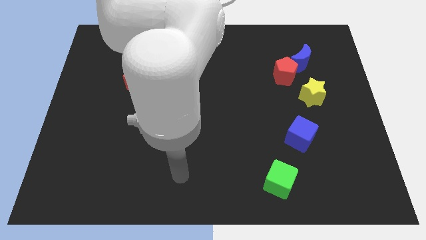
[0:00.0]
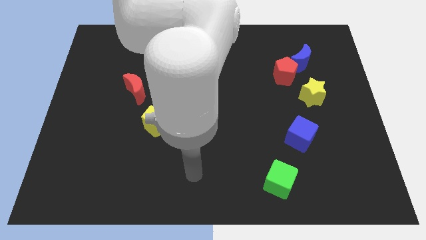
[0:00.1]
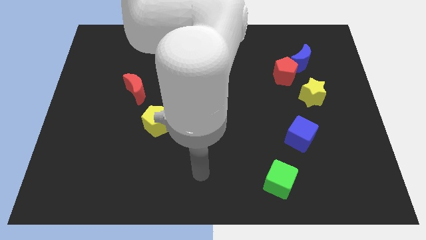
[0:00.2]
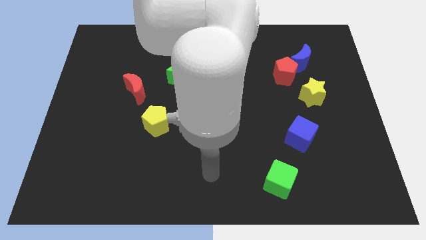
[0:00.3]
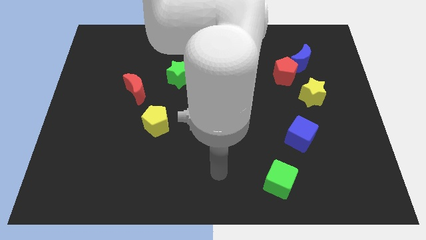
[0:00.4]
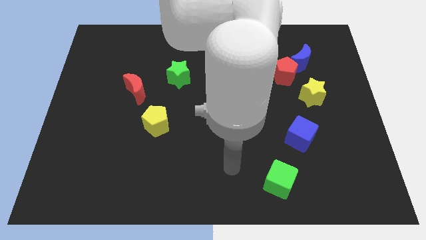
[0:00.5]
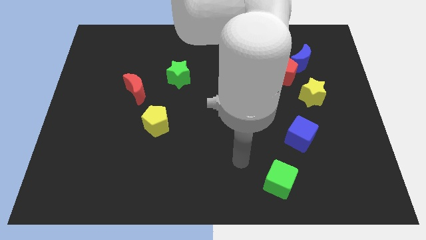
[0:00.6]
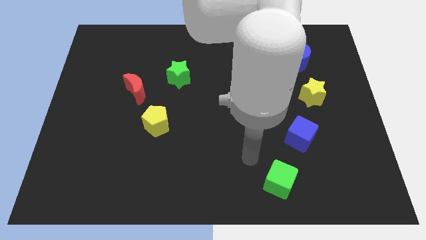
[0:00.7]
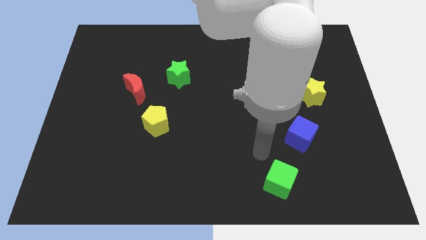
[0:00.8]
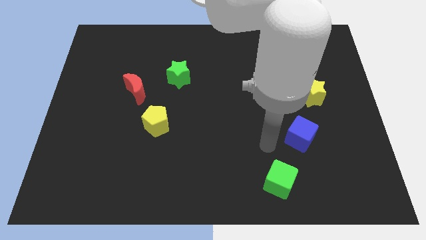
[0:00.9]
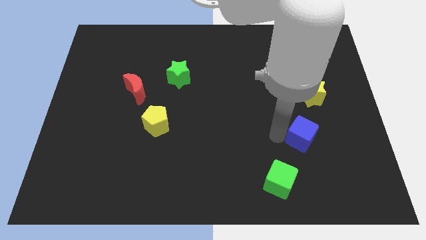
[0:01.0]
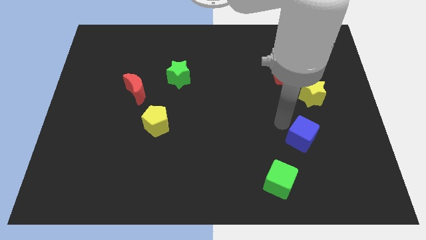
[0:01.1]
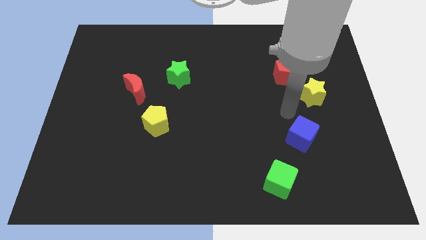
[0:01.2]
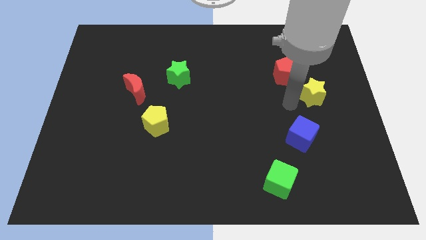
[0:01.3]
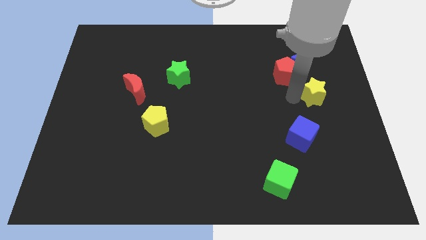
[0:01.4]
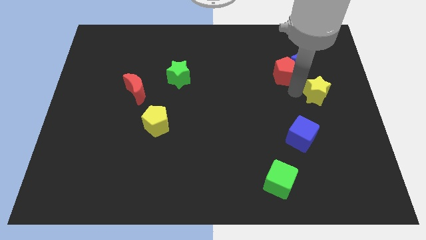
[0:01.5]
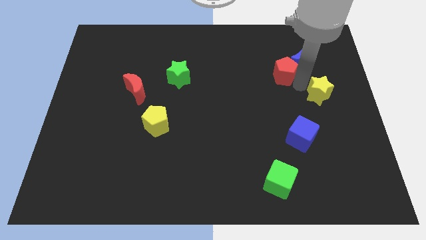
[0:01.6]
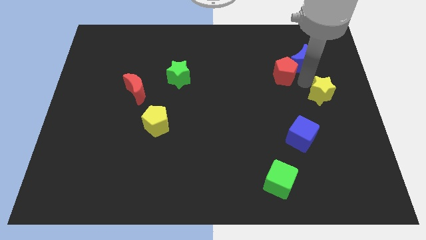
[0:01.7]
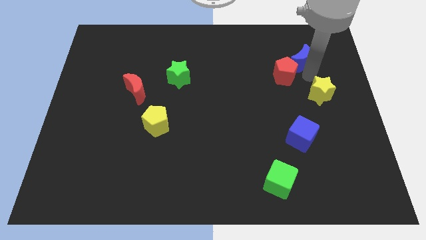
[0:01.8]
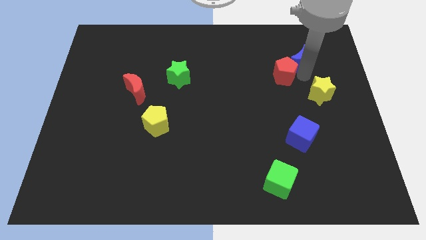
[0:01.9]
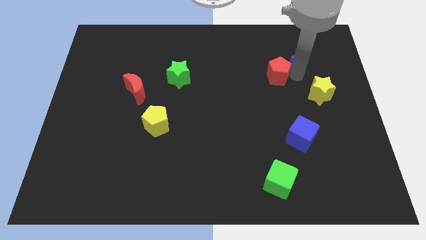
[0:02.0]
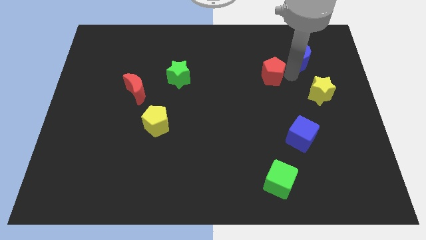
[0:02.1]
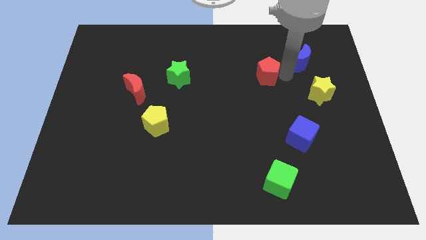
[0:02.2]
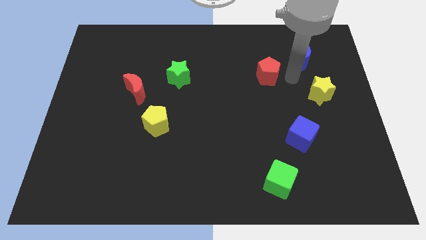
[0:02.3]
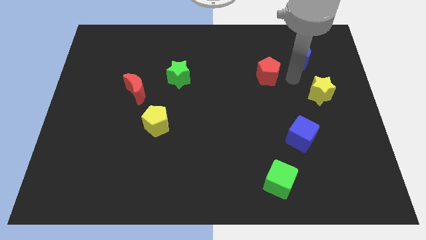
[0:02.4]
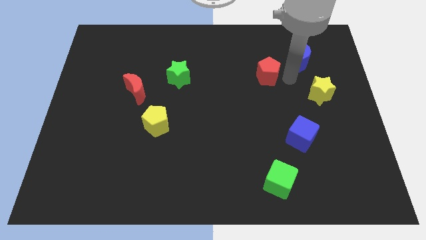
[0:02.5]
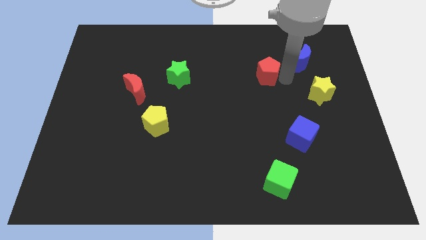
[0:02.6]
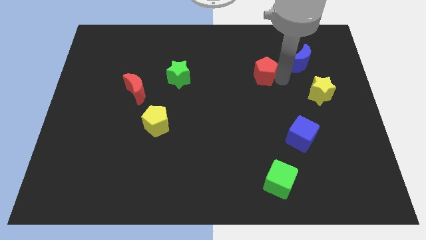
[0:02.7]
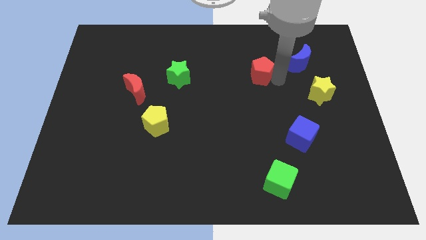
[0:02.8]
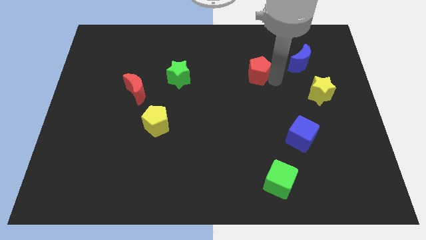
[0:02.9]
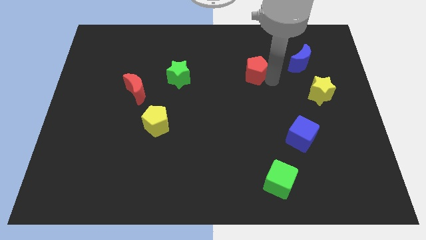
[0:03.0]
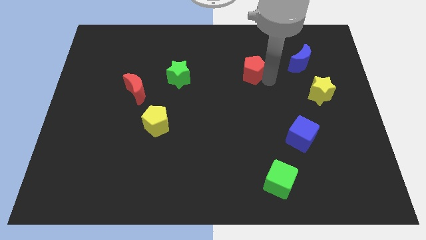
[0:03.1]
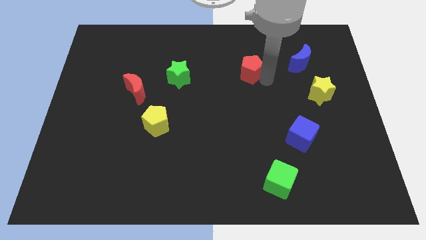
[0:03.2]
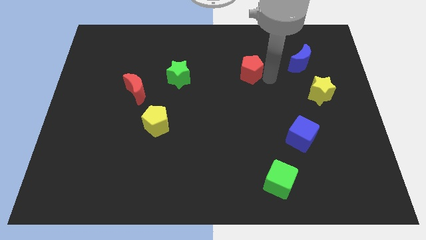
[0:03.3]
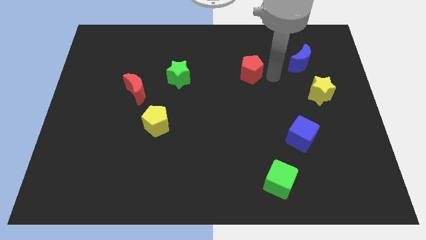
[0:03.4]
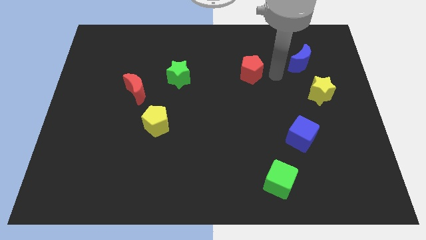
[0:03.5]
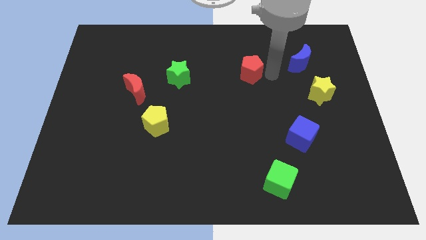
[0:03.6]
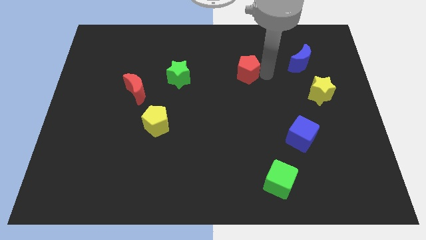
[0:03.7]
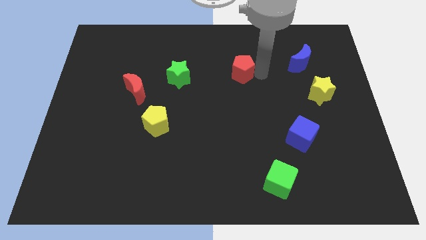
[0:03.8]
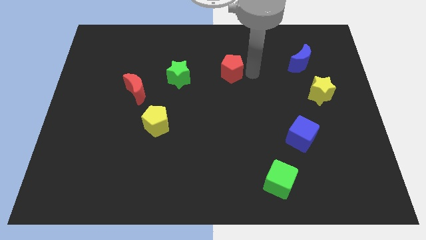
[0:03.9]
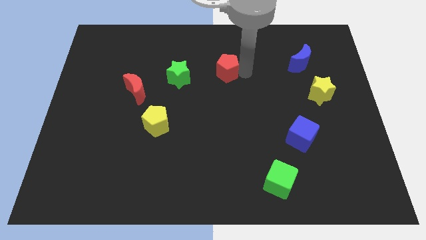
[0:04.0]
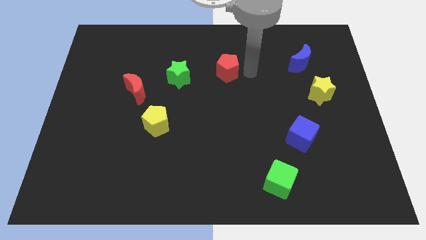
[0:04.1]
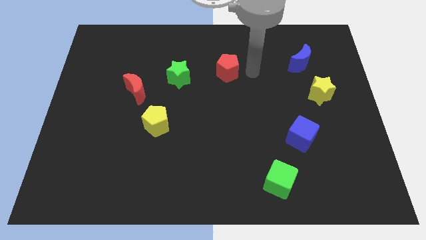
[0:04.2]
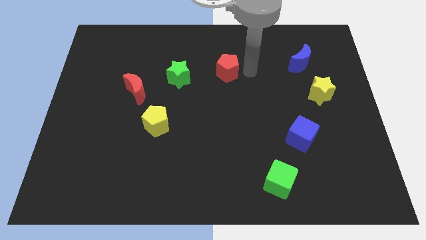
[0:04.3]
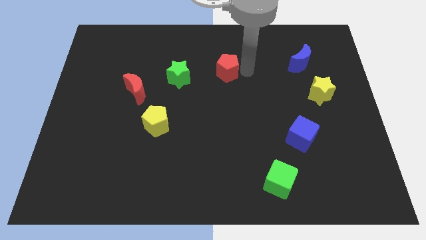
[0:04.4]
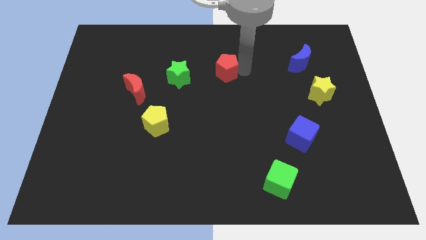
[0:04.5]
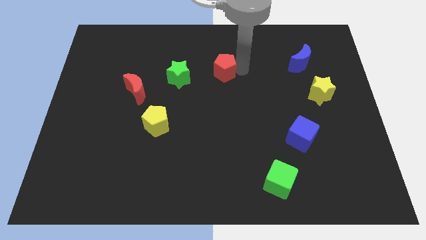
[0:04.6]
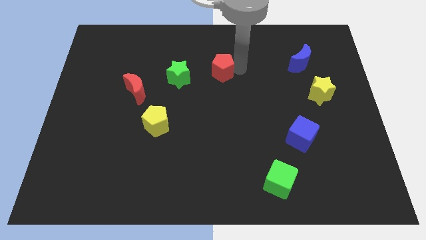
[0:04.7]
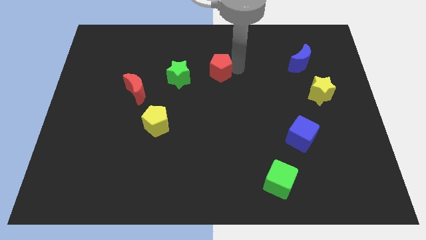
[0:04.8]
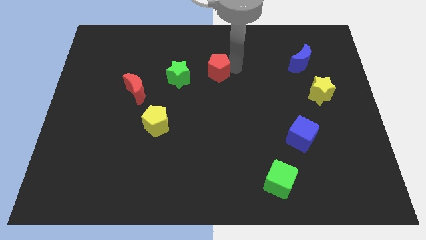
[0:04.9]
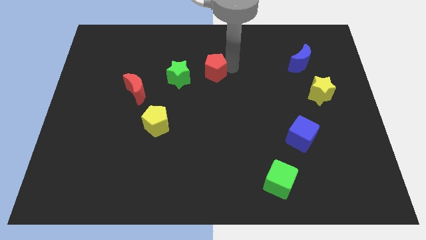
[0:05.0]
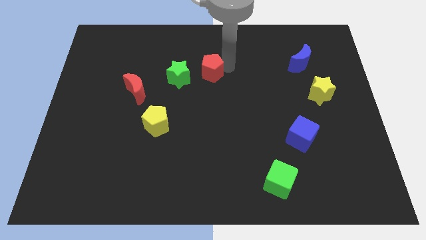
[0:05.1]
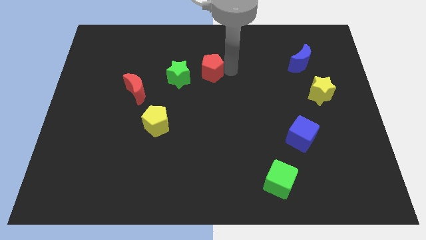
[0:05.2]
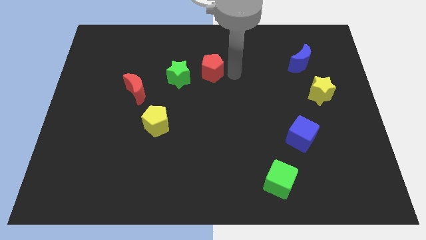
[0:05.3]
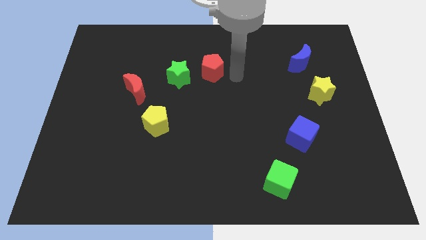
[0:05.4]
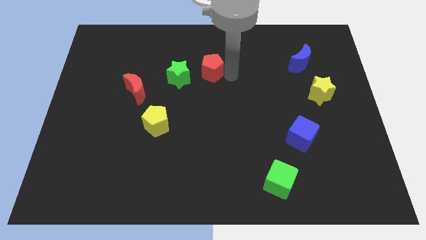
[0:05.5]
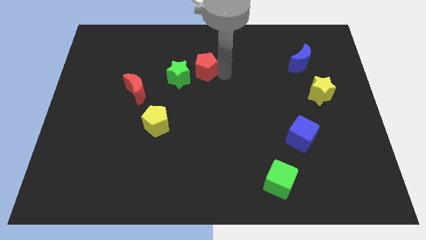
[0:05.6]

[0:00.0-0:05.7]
slide the red pentagon left

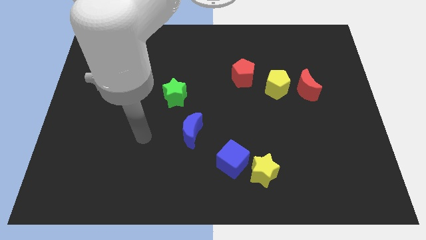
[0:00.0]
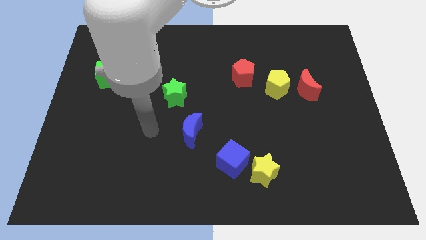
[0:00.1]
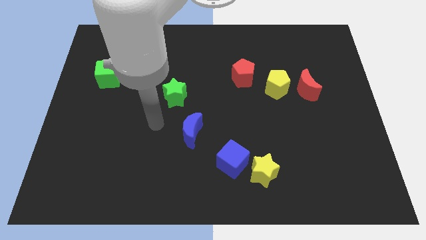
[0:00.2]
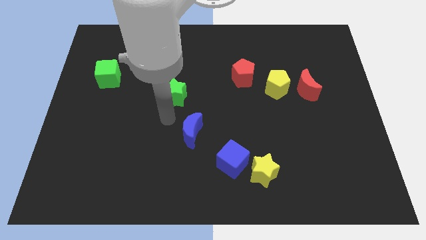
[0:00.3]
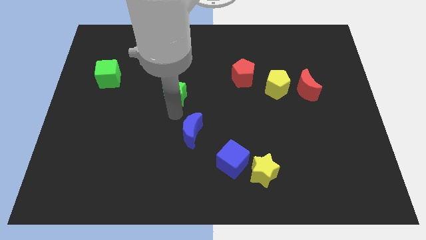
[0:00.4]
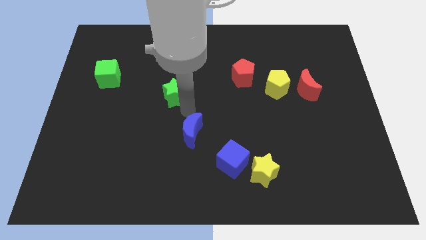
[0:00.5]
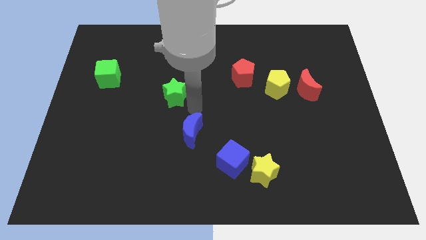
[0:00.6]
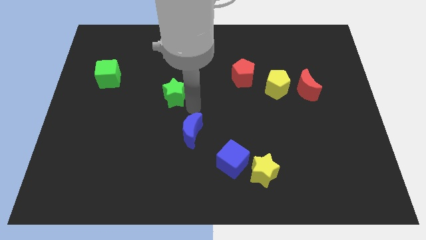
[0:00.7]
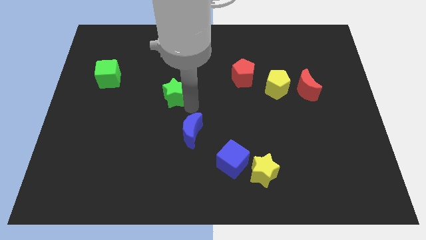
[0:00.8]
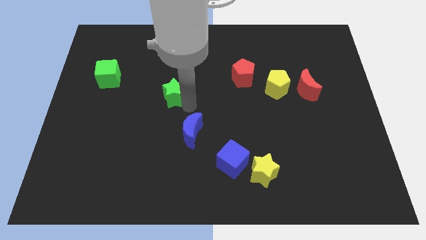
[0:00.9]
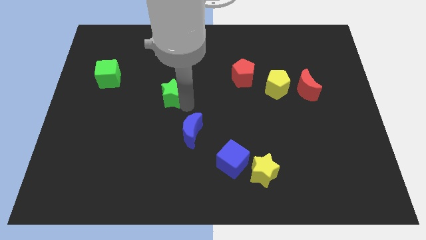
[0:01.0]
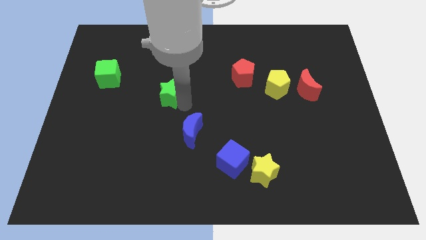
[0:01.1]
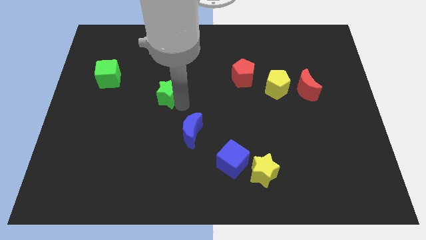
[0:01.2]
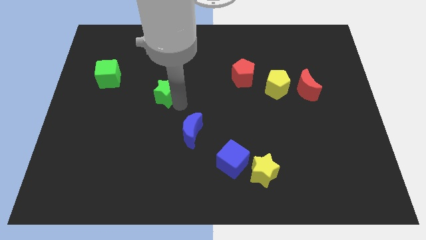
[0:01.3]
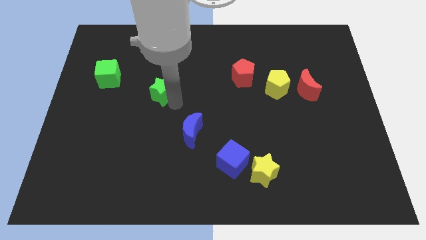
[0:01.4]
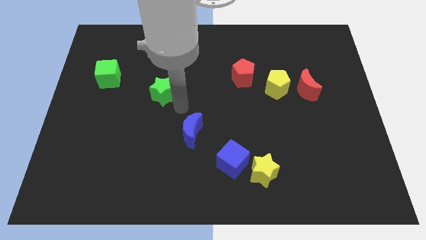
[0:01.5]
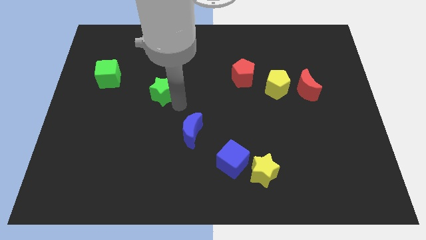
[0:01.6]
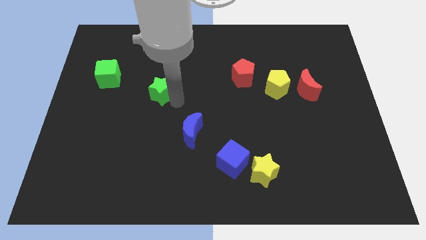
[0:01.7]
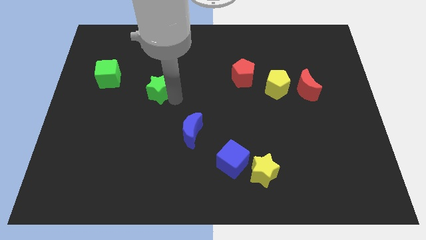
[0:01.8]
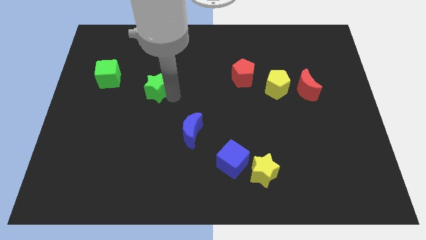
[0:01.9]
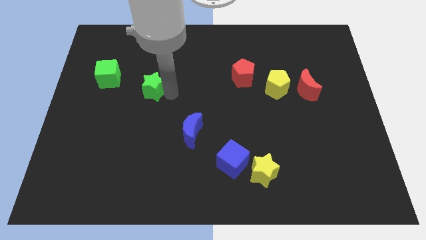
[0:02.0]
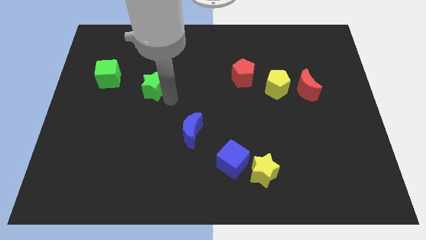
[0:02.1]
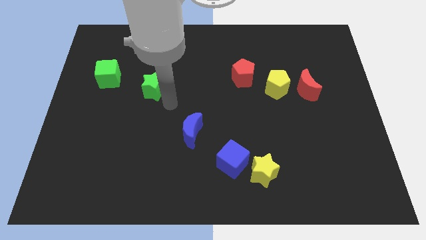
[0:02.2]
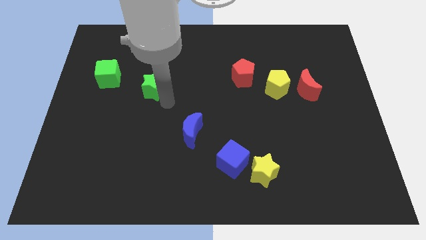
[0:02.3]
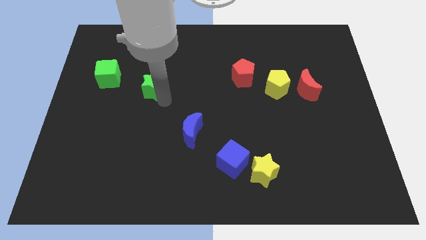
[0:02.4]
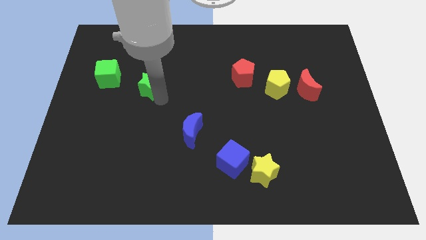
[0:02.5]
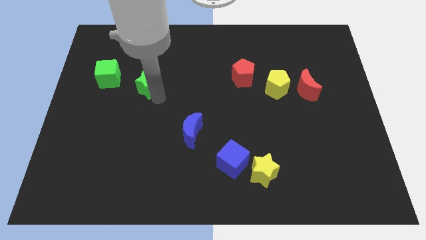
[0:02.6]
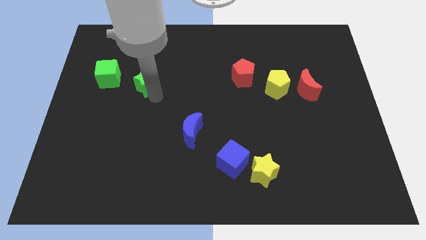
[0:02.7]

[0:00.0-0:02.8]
slightly slide the green star up and then left
